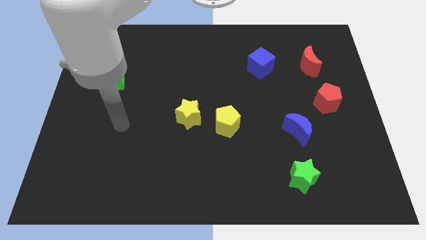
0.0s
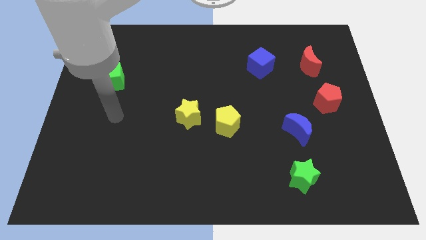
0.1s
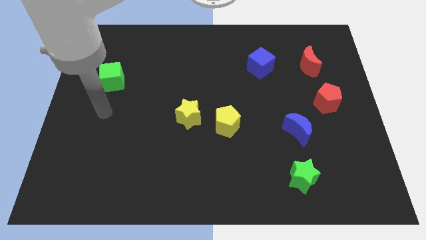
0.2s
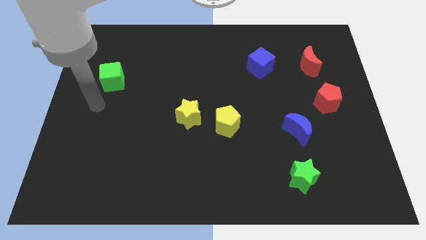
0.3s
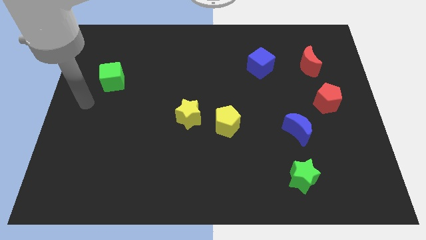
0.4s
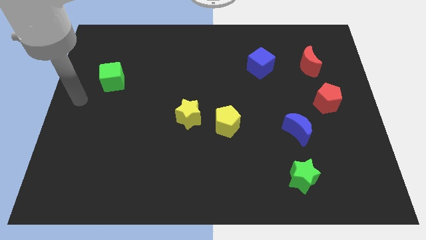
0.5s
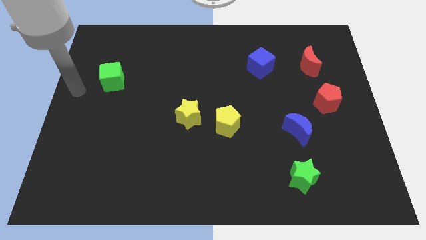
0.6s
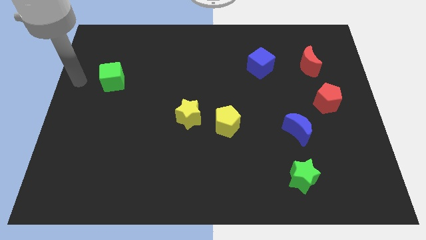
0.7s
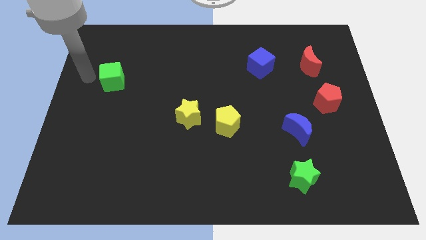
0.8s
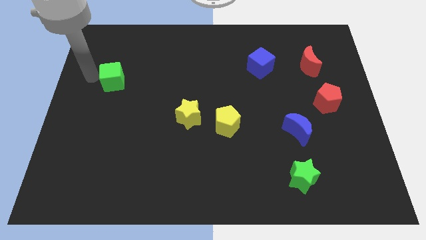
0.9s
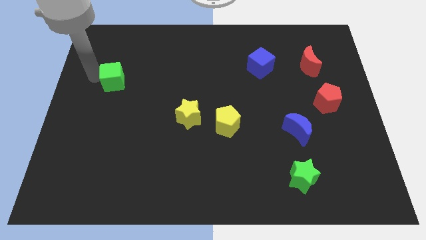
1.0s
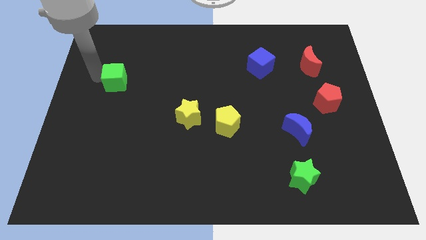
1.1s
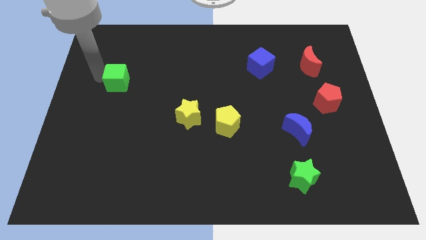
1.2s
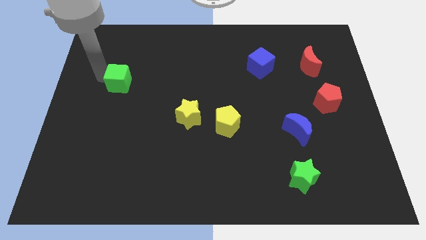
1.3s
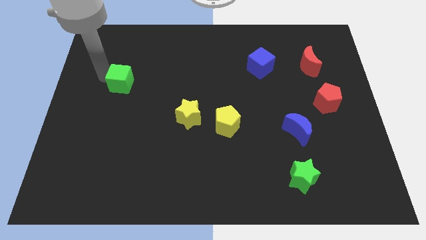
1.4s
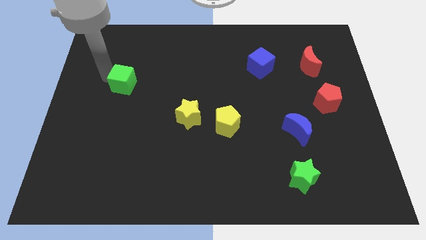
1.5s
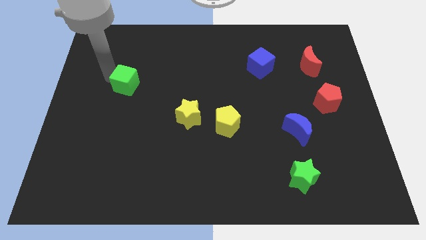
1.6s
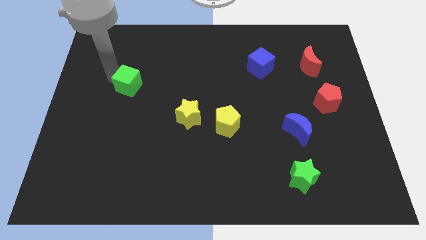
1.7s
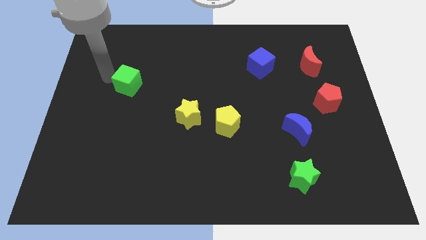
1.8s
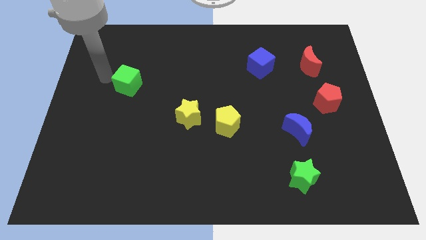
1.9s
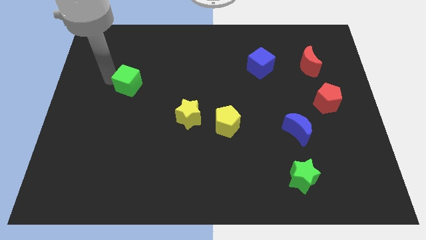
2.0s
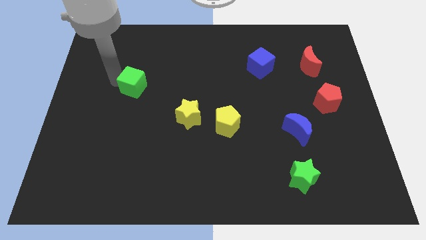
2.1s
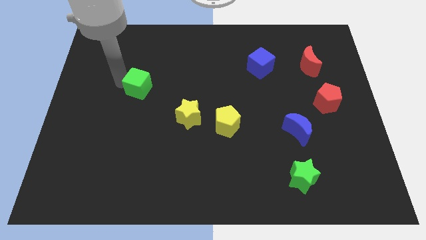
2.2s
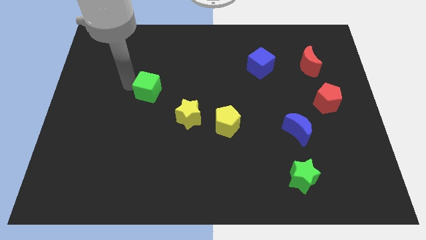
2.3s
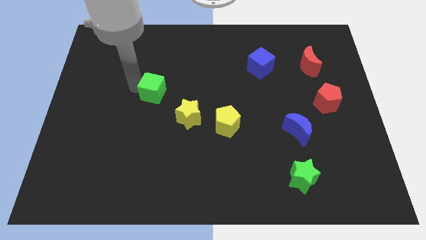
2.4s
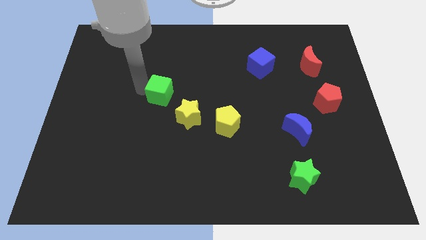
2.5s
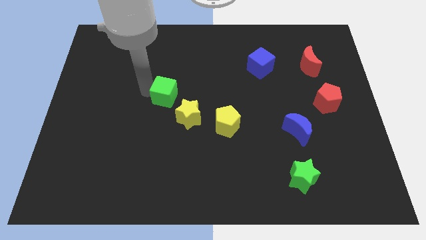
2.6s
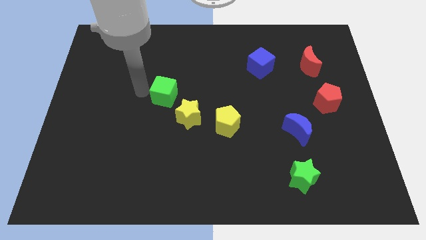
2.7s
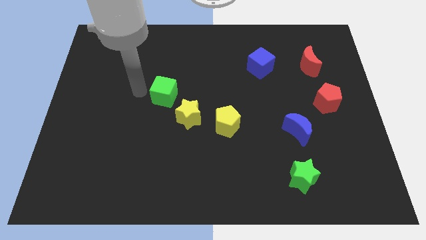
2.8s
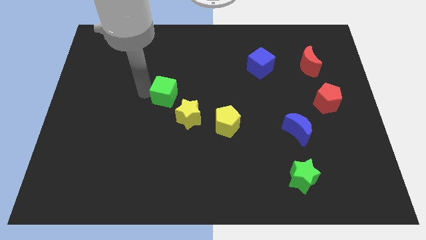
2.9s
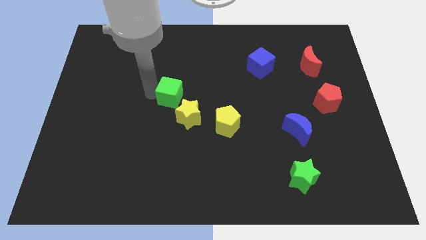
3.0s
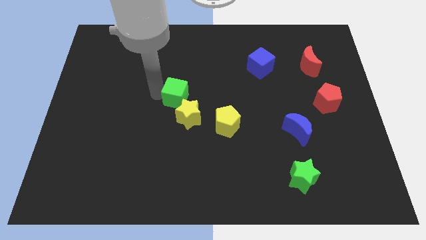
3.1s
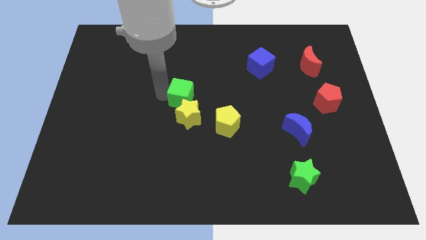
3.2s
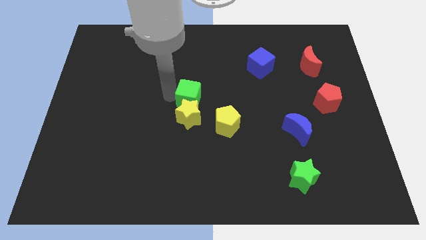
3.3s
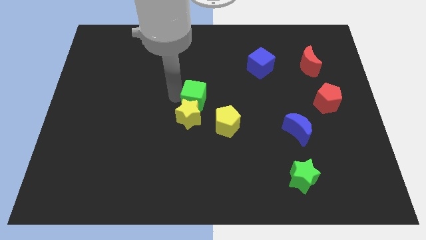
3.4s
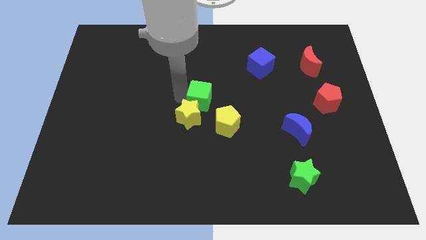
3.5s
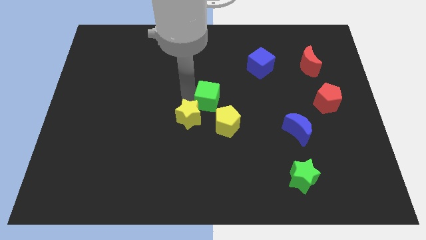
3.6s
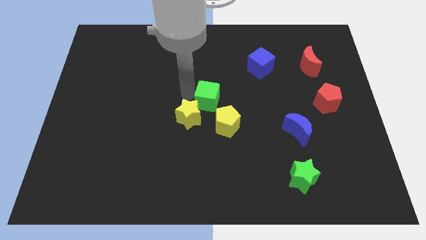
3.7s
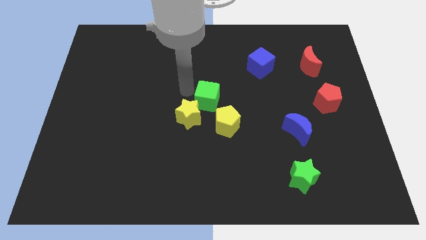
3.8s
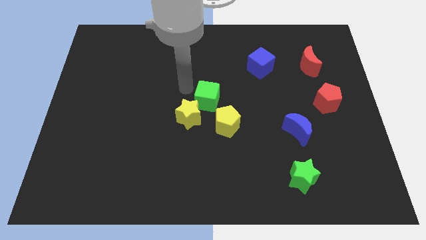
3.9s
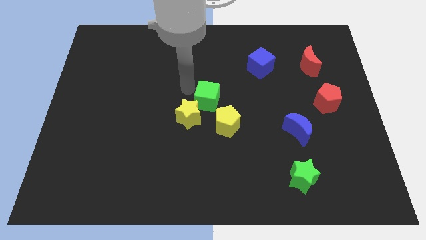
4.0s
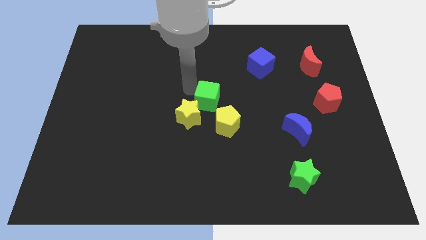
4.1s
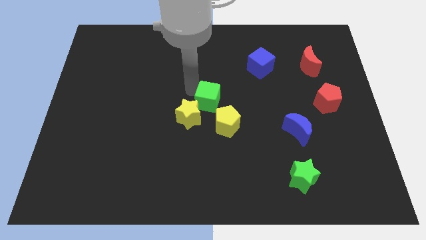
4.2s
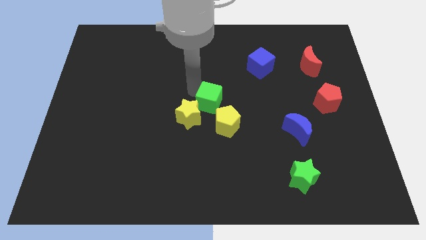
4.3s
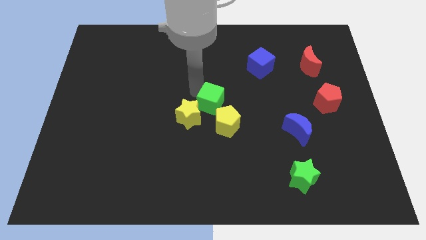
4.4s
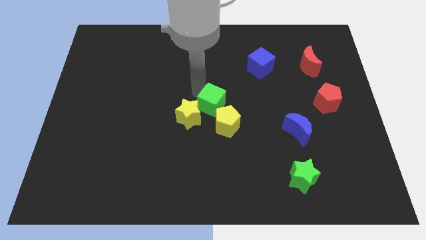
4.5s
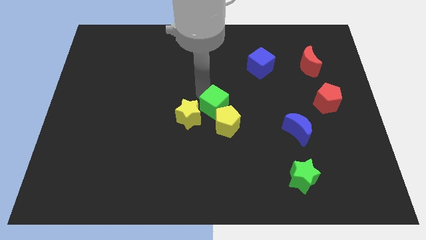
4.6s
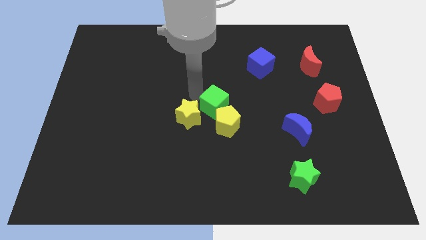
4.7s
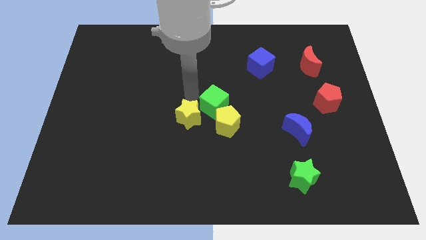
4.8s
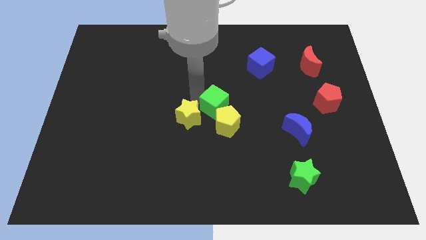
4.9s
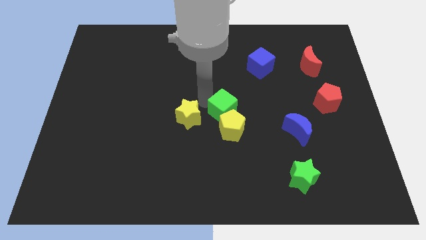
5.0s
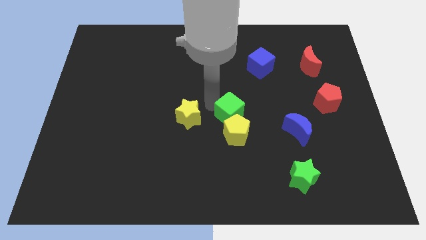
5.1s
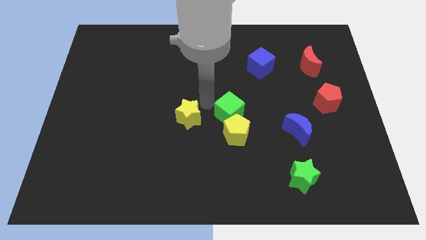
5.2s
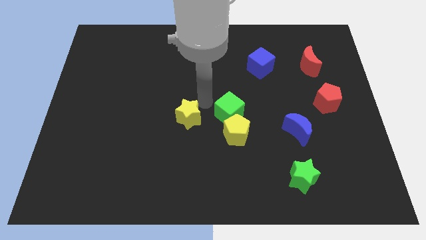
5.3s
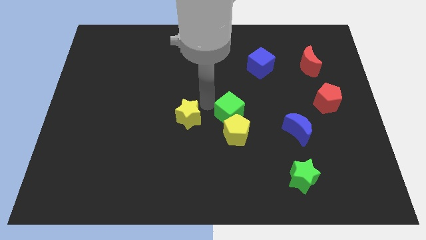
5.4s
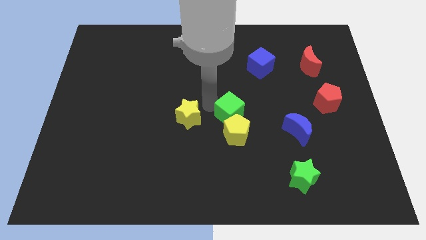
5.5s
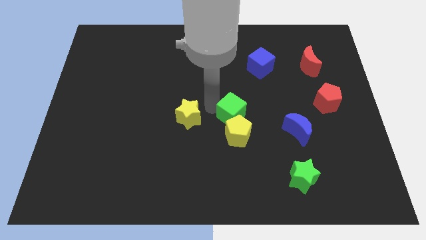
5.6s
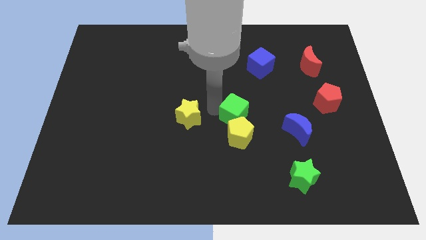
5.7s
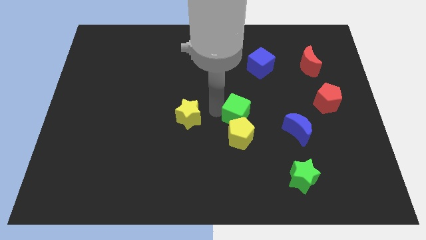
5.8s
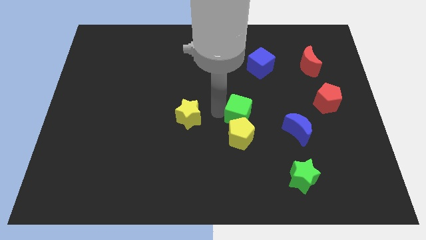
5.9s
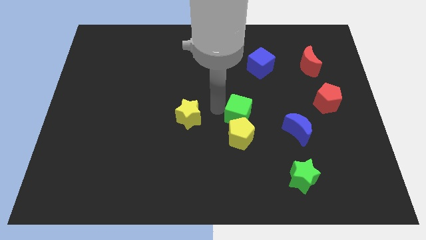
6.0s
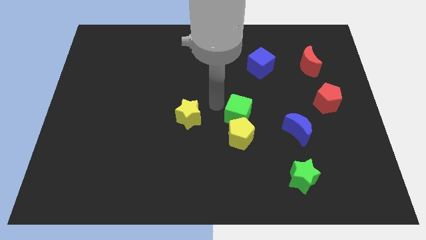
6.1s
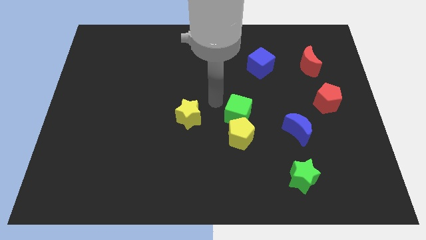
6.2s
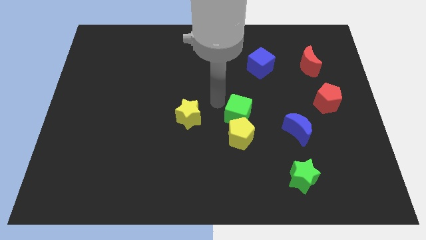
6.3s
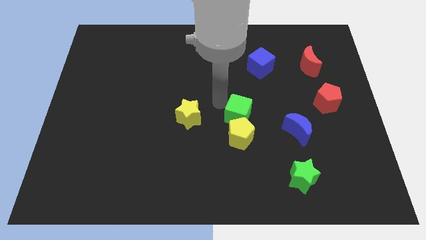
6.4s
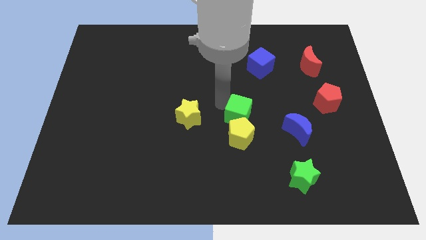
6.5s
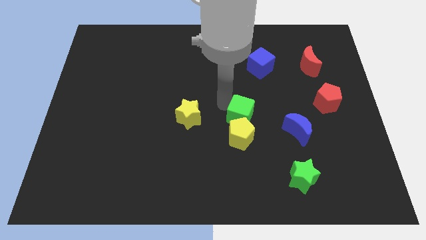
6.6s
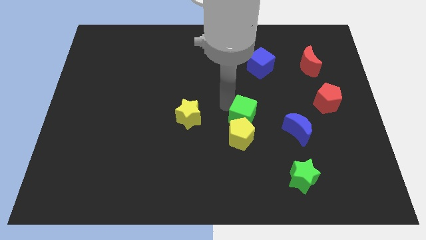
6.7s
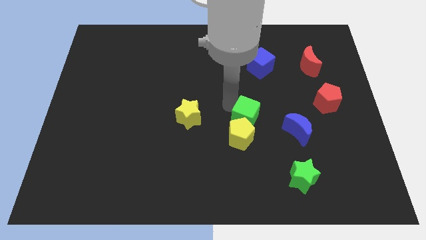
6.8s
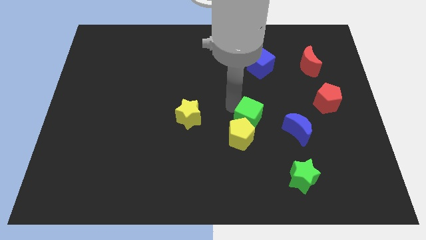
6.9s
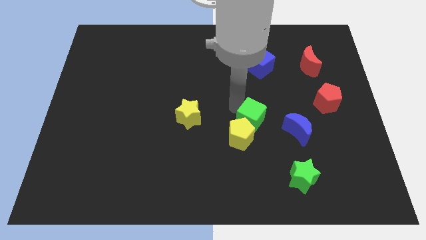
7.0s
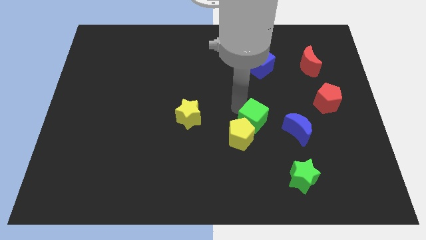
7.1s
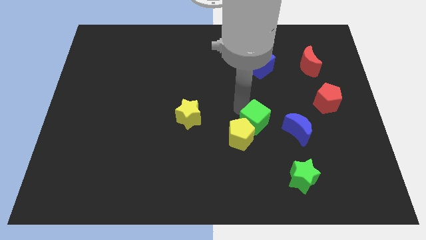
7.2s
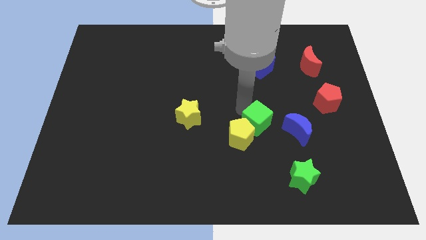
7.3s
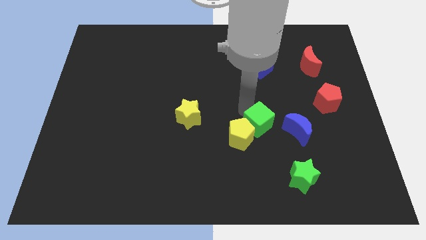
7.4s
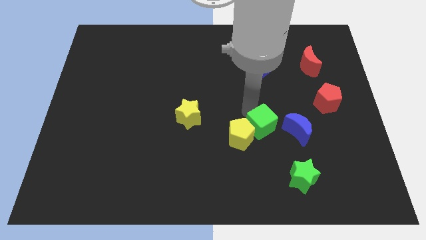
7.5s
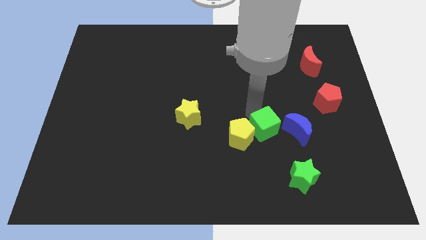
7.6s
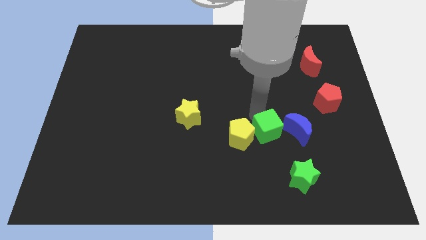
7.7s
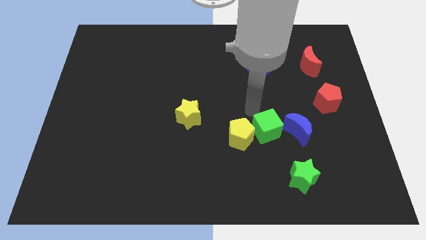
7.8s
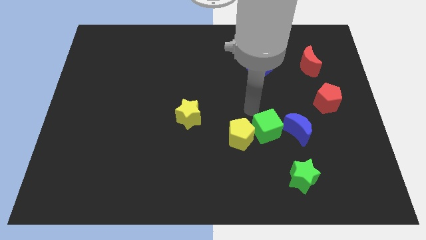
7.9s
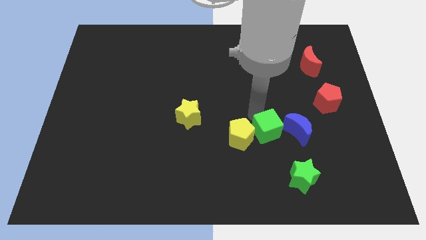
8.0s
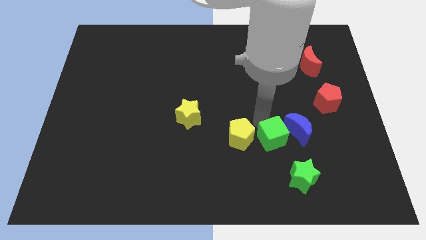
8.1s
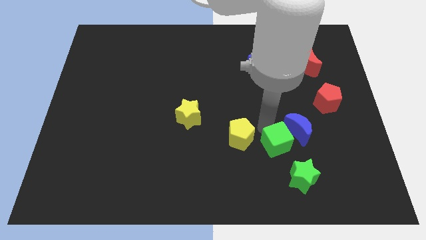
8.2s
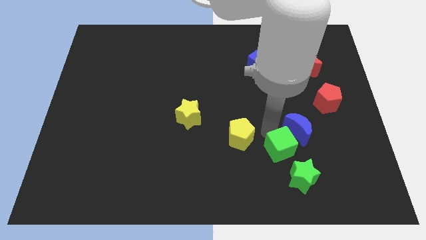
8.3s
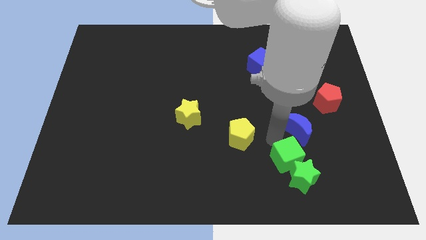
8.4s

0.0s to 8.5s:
put the green cube next to the green star
